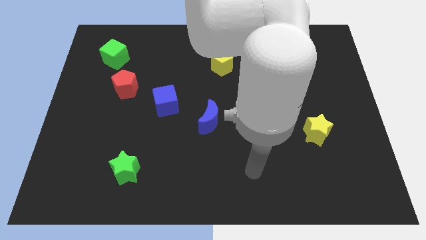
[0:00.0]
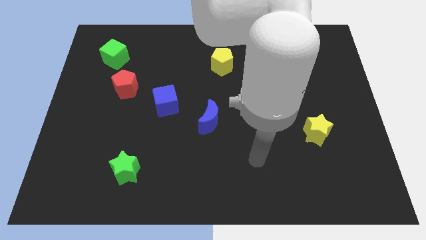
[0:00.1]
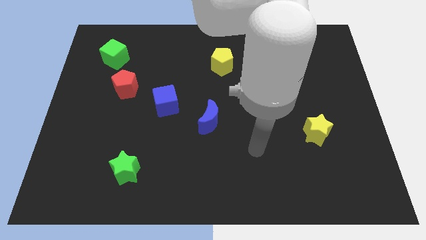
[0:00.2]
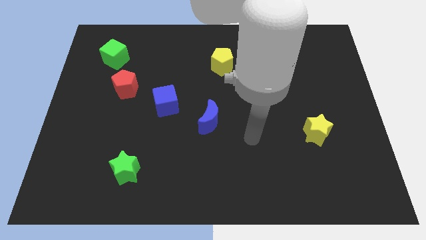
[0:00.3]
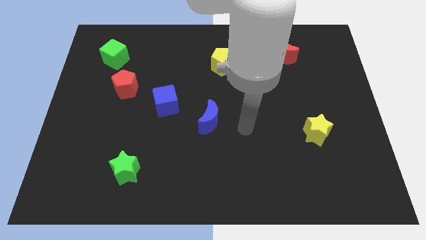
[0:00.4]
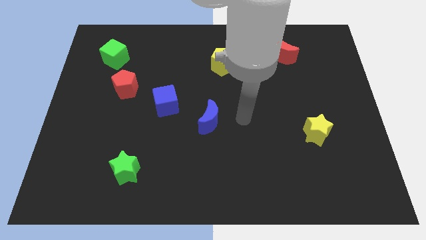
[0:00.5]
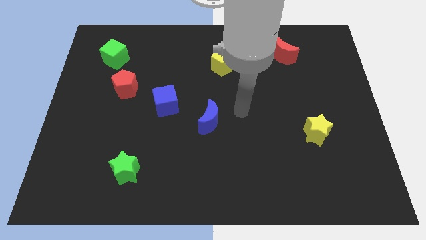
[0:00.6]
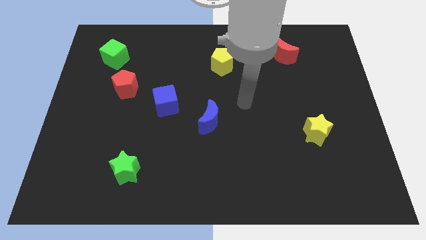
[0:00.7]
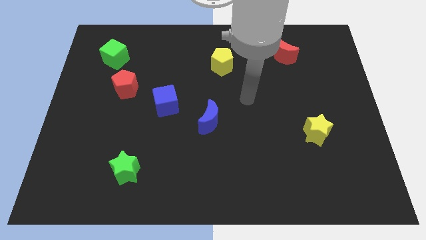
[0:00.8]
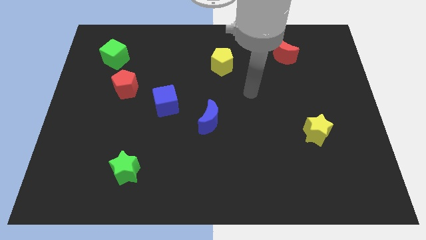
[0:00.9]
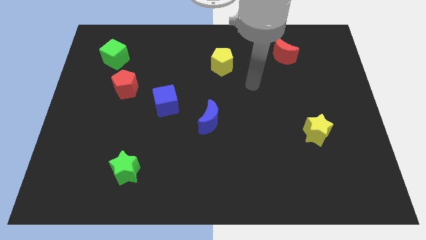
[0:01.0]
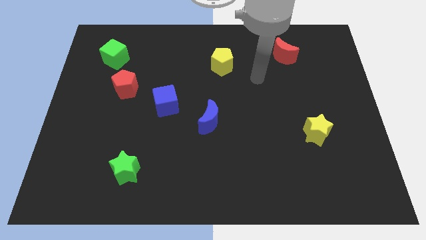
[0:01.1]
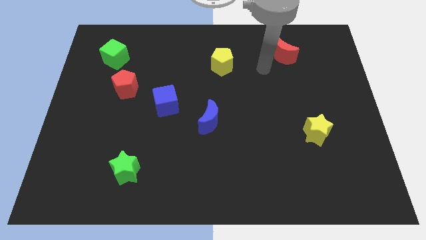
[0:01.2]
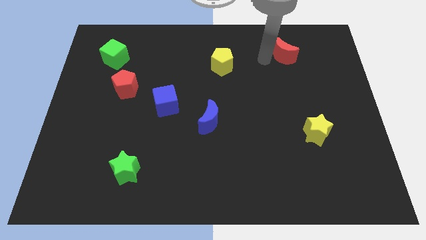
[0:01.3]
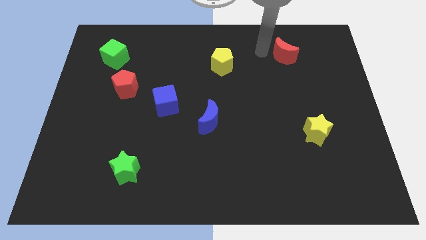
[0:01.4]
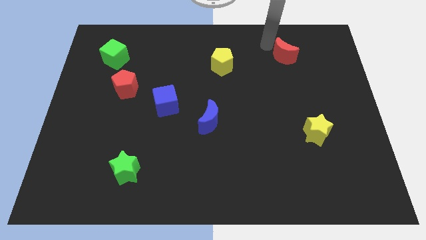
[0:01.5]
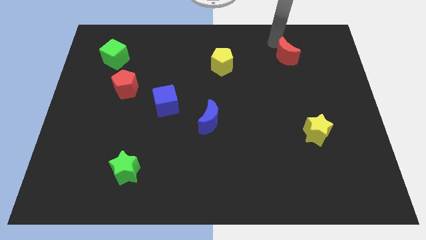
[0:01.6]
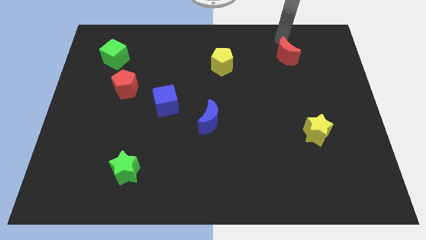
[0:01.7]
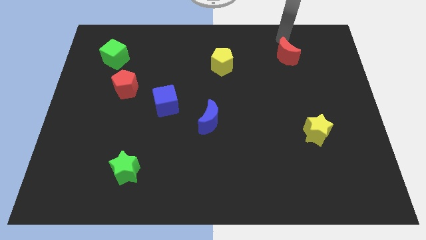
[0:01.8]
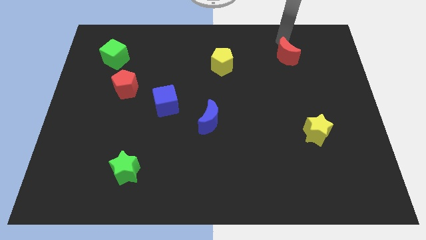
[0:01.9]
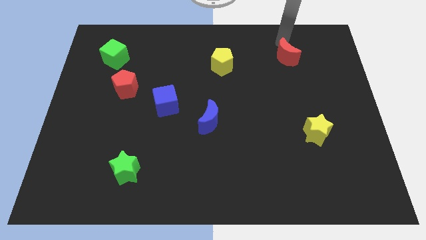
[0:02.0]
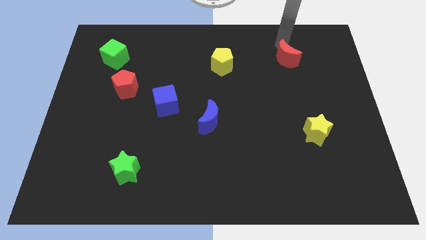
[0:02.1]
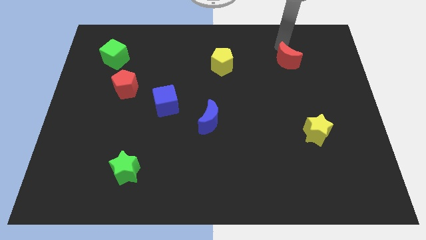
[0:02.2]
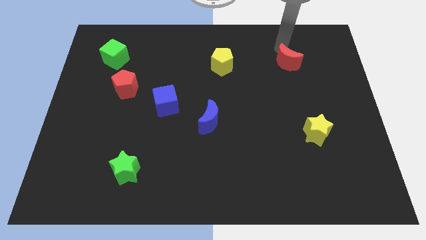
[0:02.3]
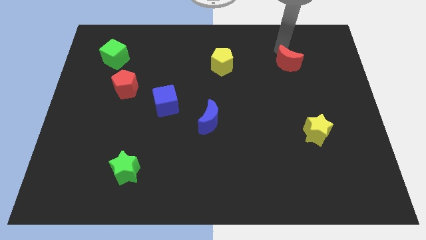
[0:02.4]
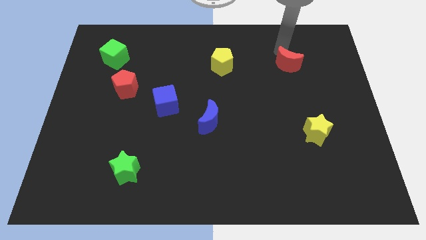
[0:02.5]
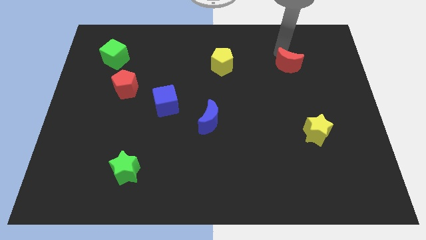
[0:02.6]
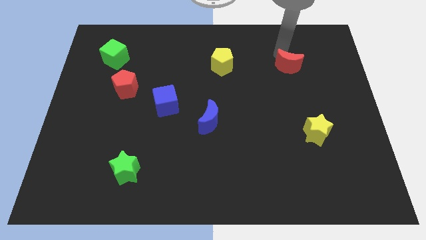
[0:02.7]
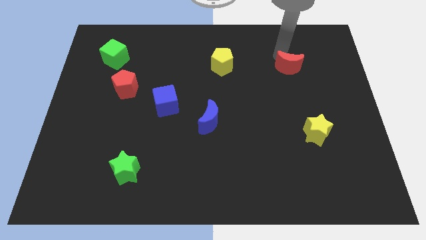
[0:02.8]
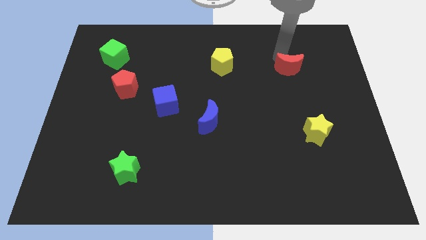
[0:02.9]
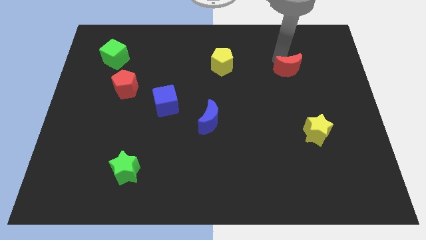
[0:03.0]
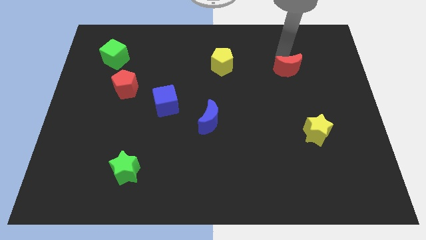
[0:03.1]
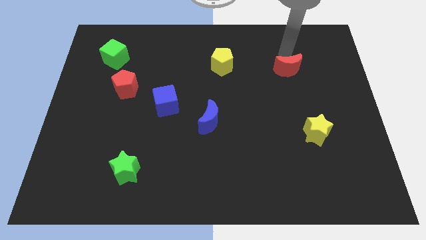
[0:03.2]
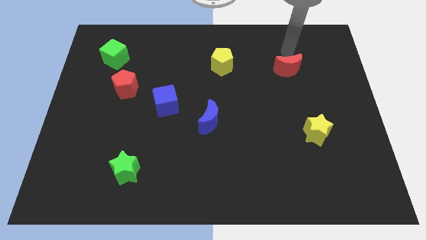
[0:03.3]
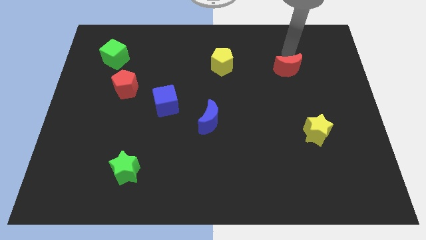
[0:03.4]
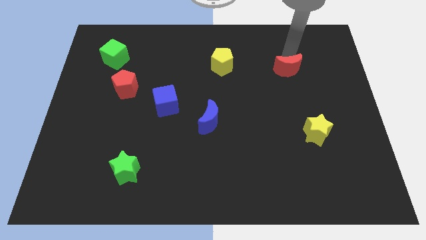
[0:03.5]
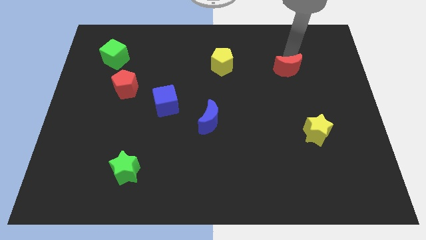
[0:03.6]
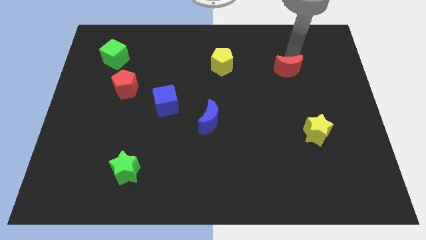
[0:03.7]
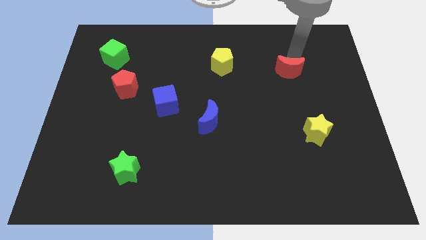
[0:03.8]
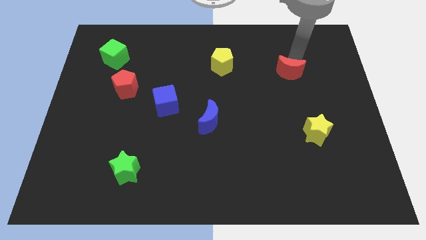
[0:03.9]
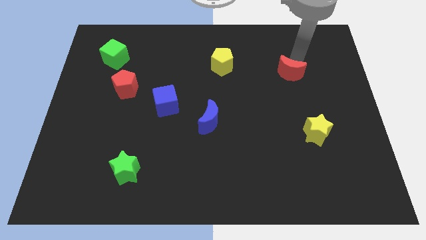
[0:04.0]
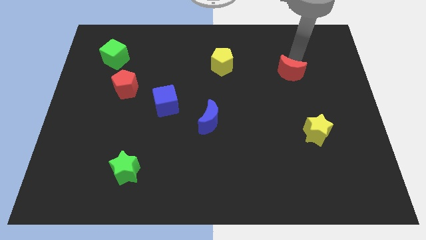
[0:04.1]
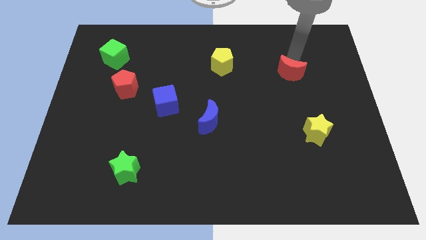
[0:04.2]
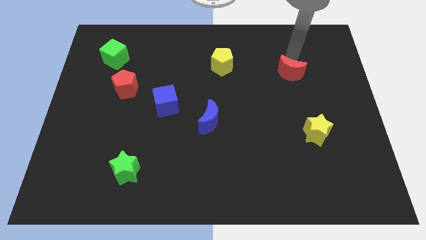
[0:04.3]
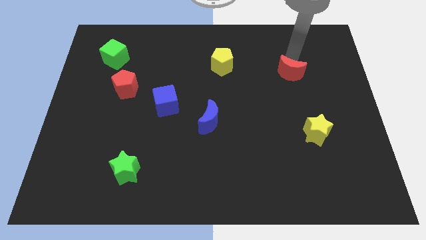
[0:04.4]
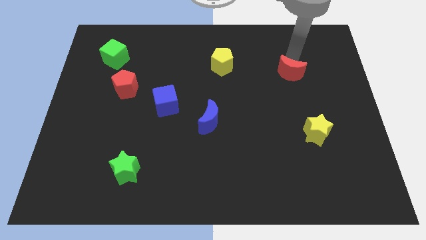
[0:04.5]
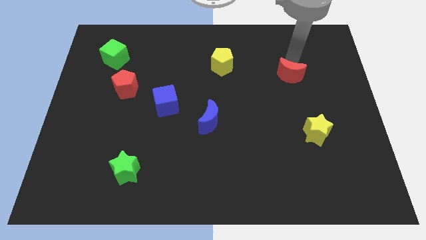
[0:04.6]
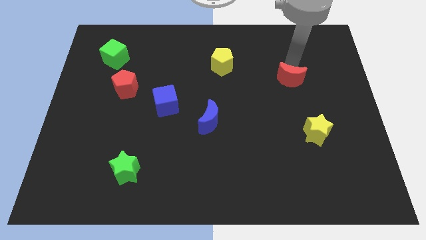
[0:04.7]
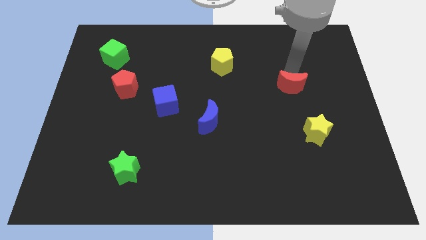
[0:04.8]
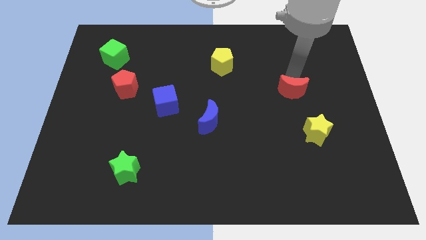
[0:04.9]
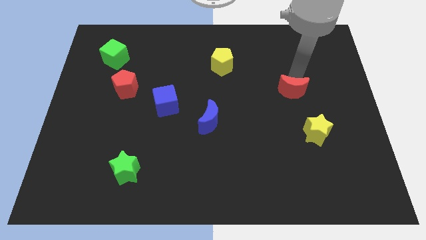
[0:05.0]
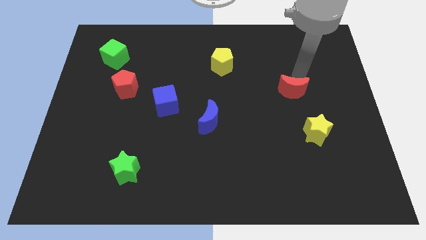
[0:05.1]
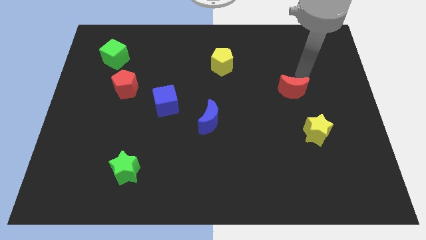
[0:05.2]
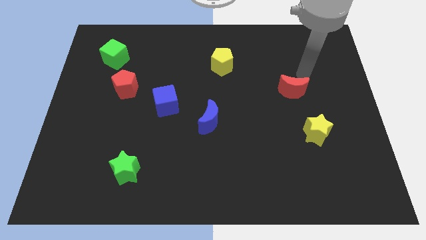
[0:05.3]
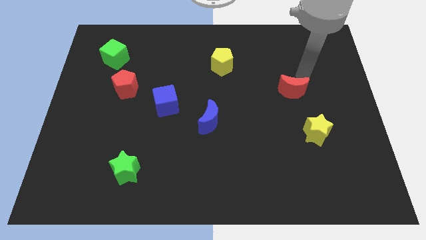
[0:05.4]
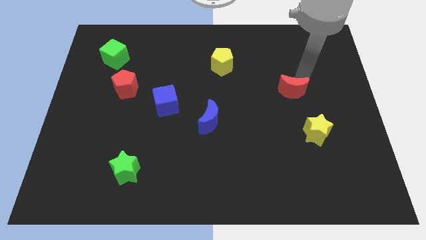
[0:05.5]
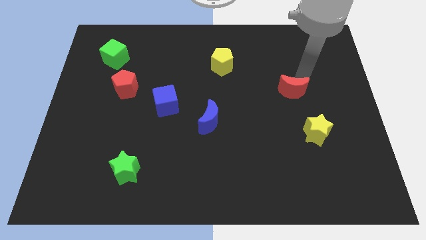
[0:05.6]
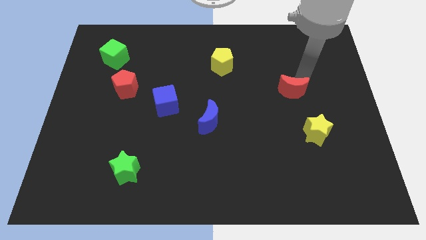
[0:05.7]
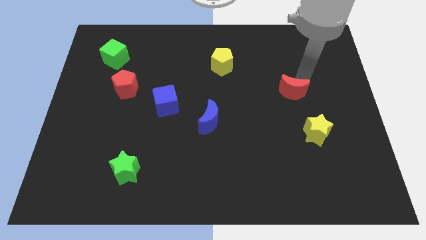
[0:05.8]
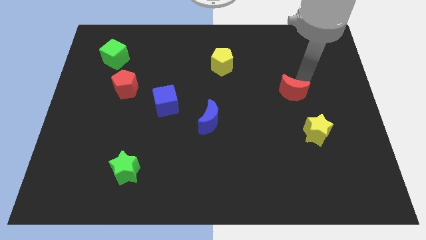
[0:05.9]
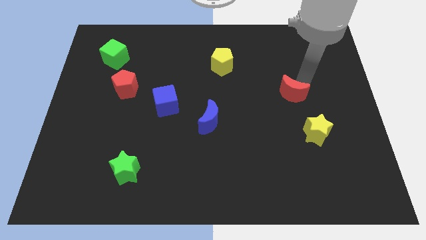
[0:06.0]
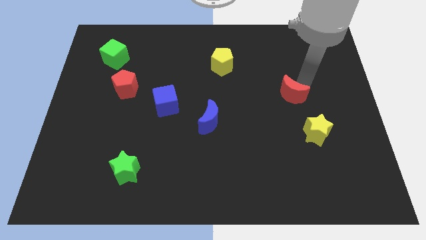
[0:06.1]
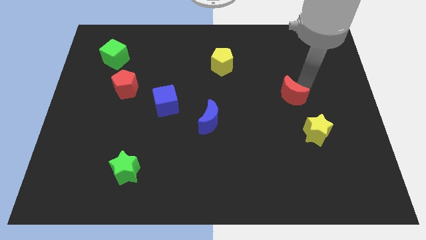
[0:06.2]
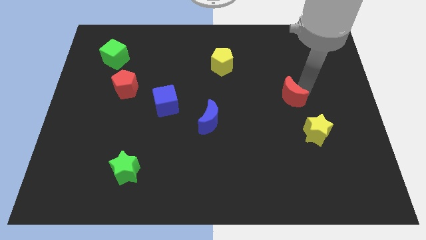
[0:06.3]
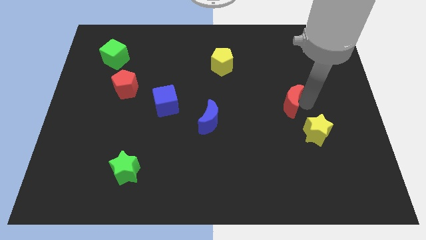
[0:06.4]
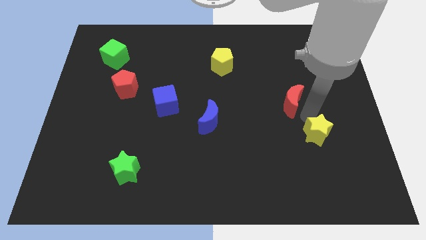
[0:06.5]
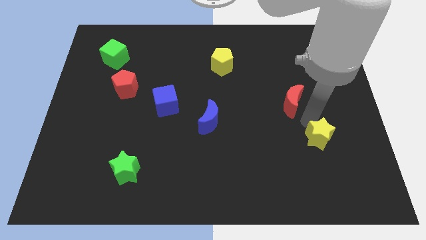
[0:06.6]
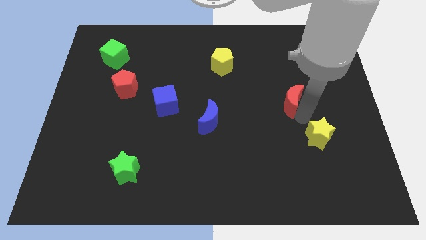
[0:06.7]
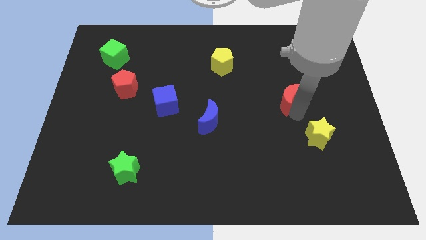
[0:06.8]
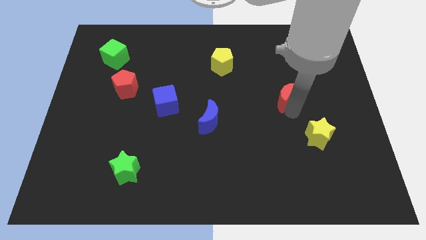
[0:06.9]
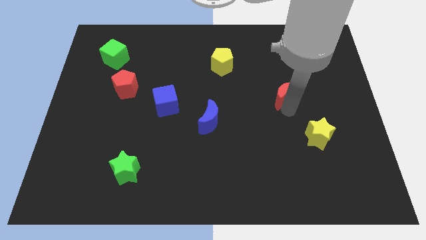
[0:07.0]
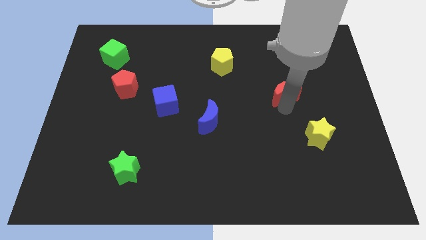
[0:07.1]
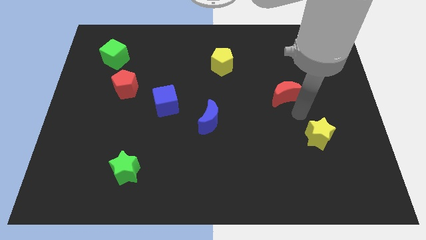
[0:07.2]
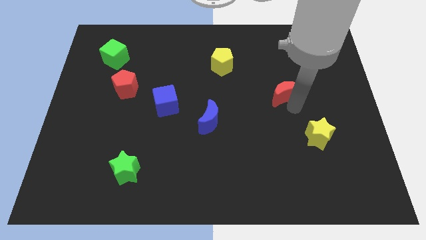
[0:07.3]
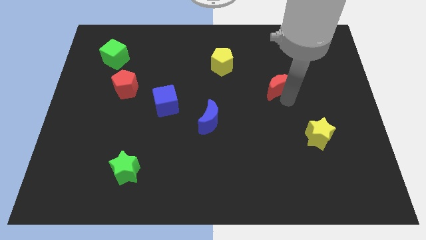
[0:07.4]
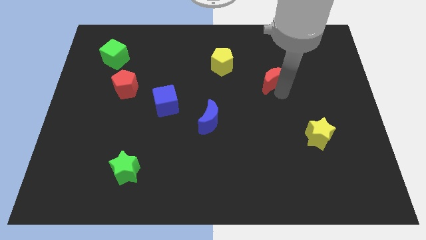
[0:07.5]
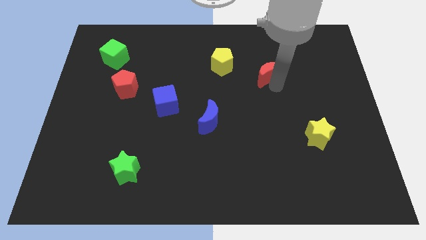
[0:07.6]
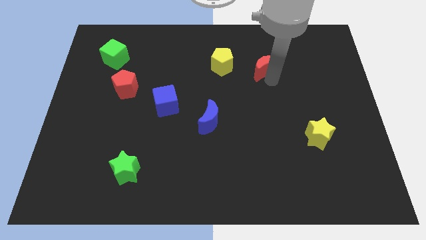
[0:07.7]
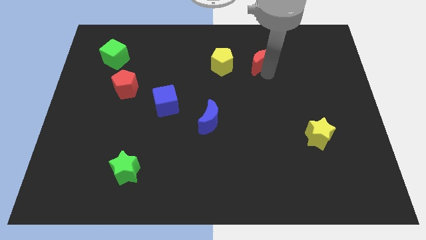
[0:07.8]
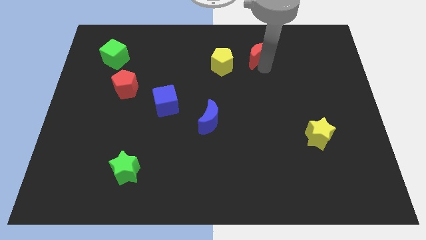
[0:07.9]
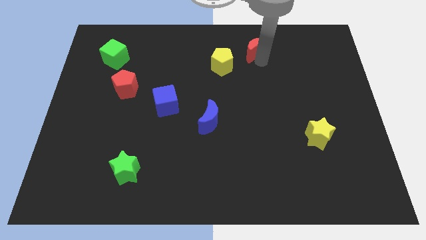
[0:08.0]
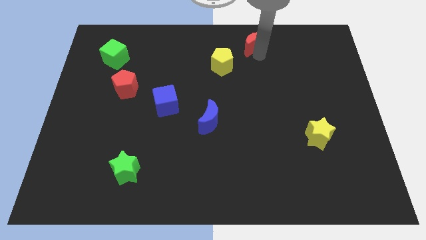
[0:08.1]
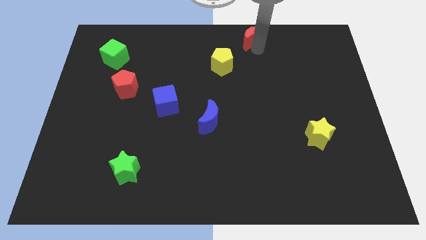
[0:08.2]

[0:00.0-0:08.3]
move the red moon to the top
